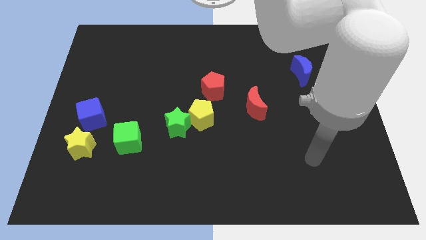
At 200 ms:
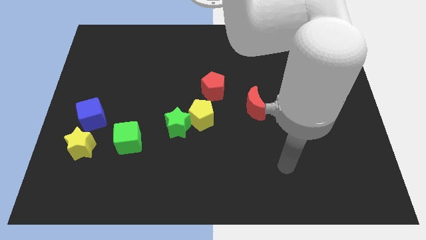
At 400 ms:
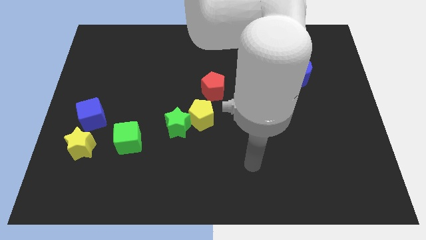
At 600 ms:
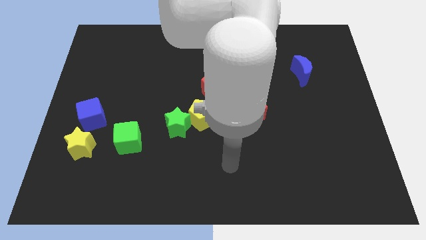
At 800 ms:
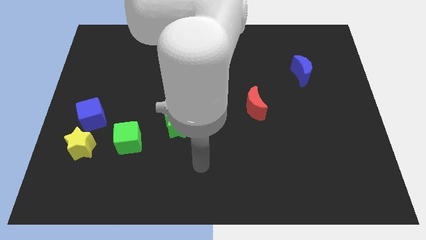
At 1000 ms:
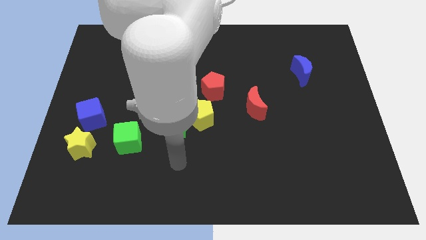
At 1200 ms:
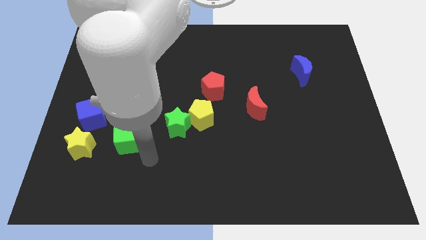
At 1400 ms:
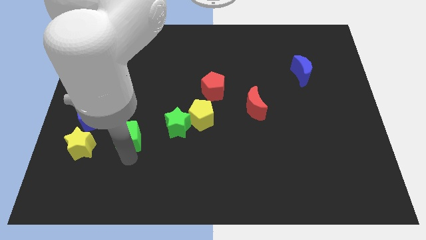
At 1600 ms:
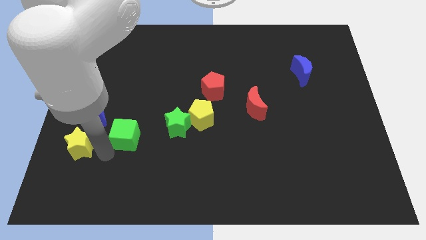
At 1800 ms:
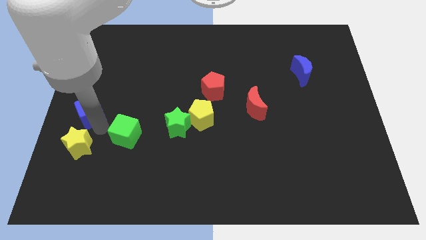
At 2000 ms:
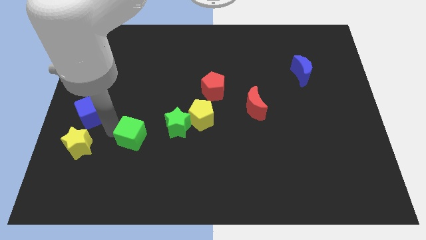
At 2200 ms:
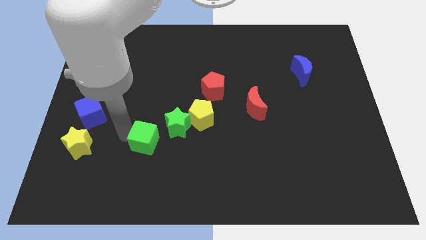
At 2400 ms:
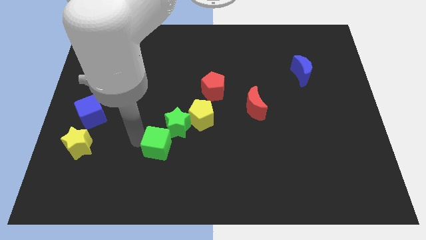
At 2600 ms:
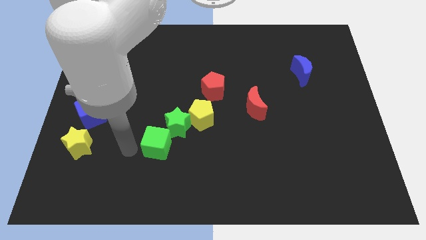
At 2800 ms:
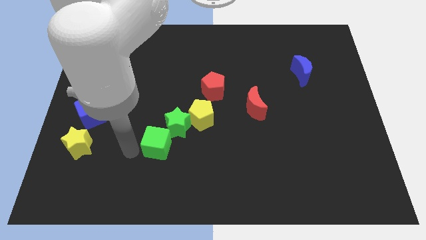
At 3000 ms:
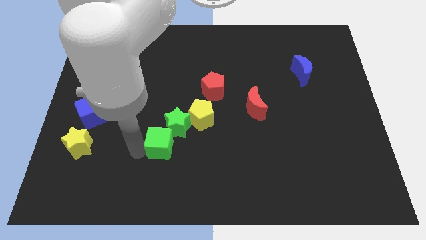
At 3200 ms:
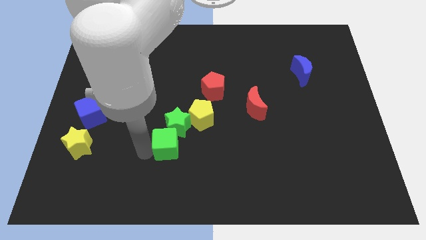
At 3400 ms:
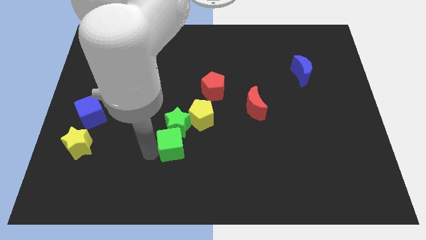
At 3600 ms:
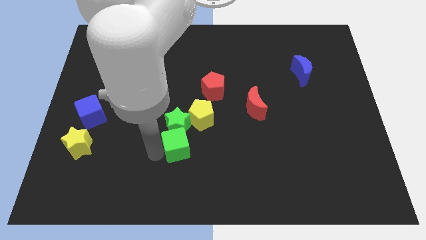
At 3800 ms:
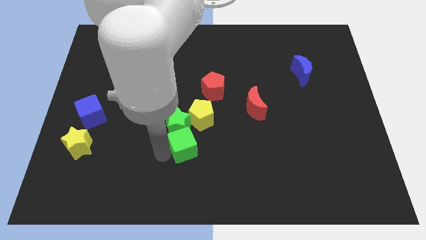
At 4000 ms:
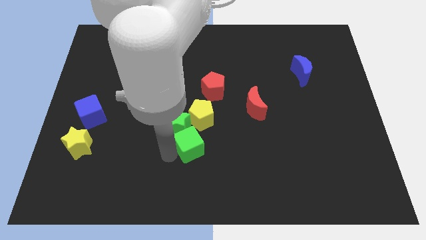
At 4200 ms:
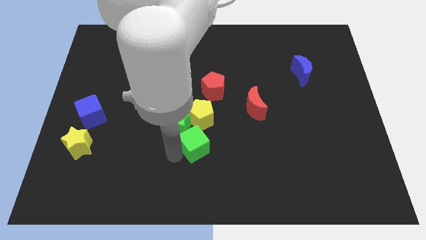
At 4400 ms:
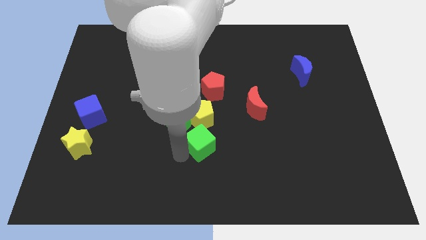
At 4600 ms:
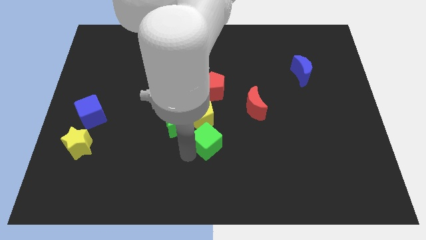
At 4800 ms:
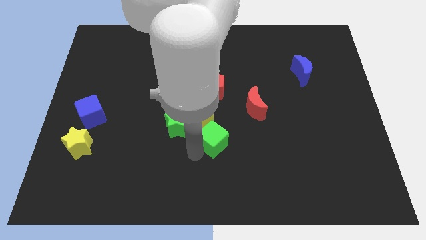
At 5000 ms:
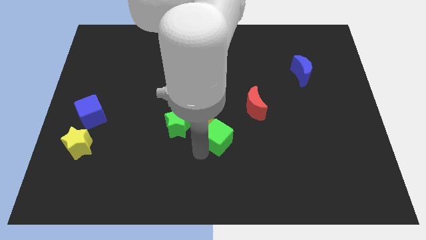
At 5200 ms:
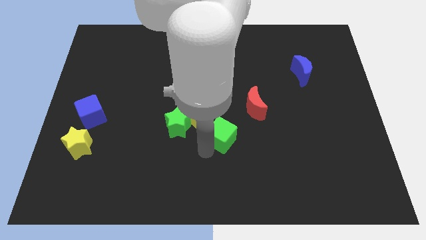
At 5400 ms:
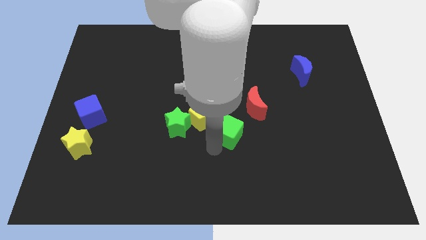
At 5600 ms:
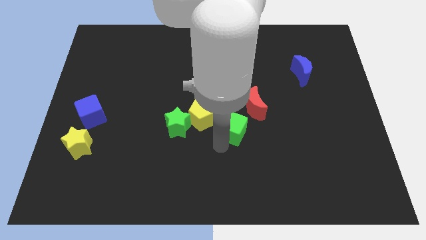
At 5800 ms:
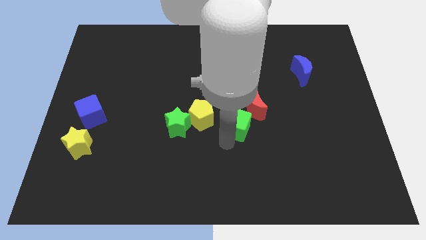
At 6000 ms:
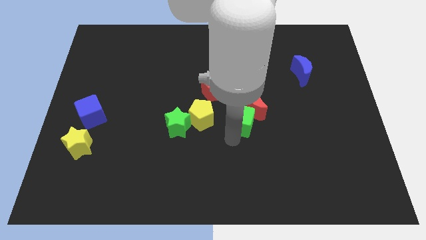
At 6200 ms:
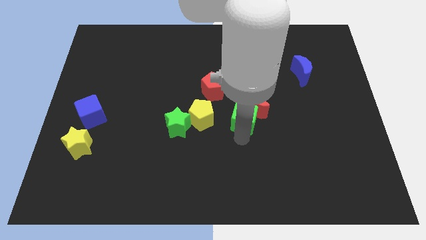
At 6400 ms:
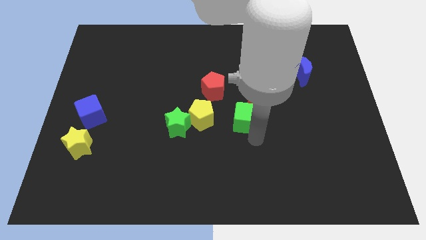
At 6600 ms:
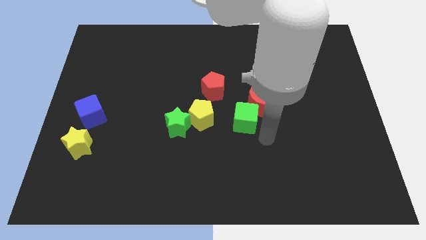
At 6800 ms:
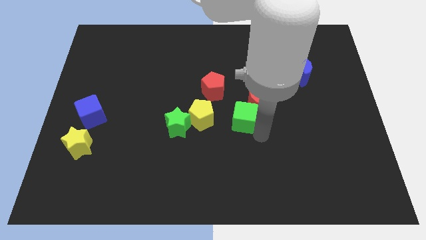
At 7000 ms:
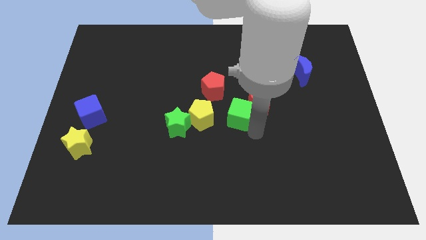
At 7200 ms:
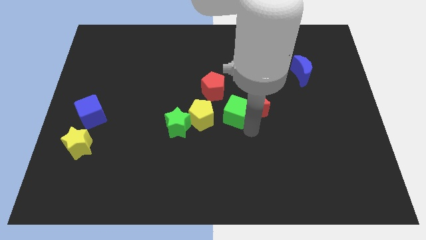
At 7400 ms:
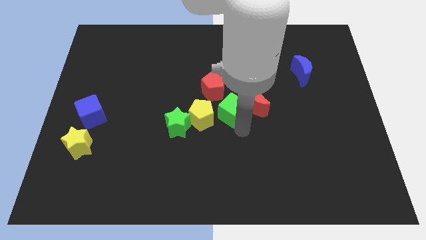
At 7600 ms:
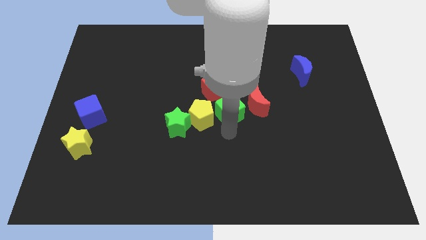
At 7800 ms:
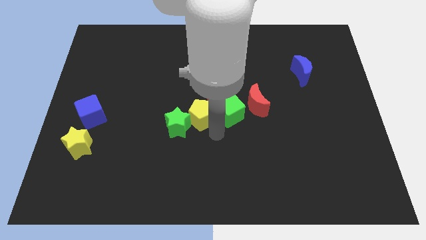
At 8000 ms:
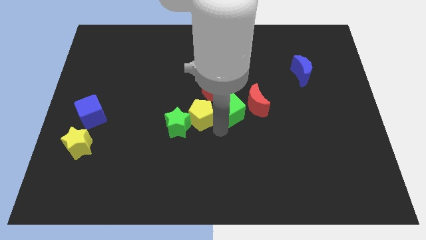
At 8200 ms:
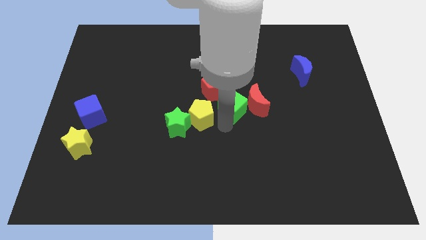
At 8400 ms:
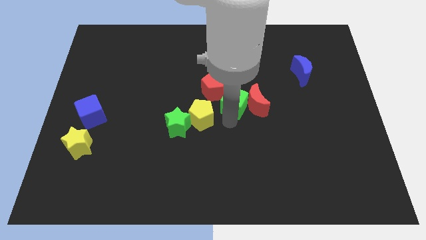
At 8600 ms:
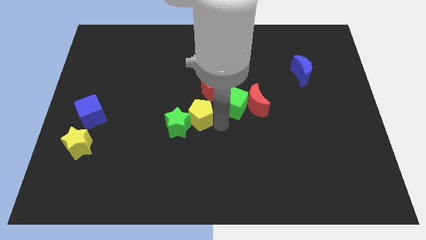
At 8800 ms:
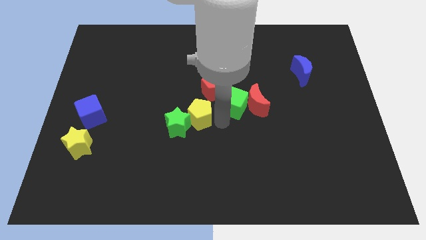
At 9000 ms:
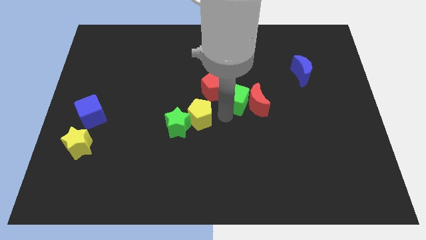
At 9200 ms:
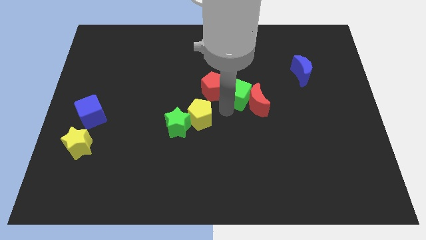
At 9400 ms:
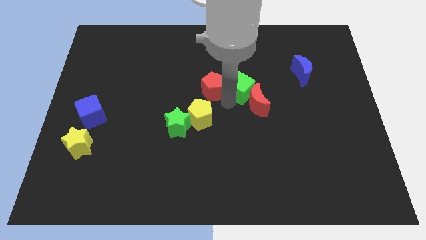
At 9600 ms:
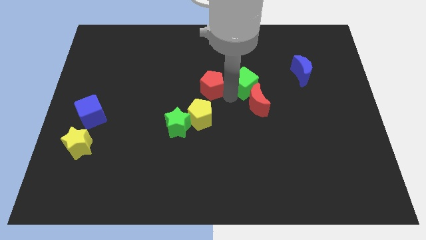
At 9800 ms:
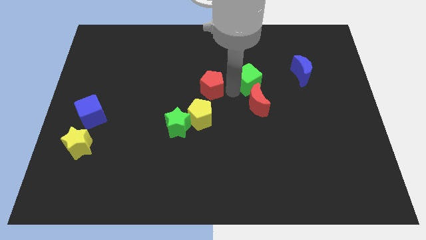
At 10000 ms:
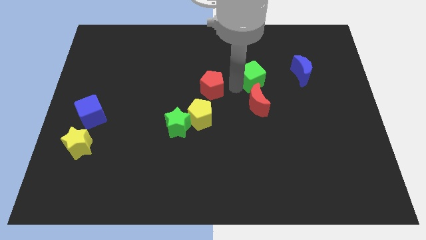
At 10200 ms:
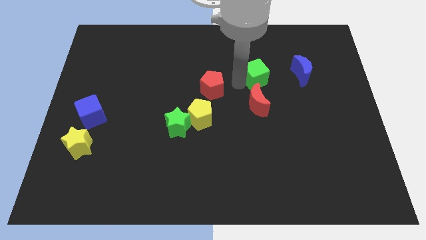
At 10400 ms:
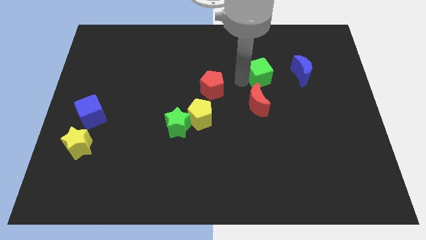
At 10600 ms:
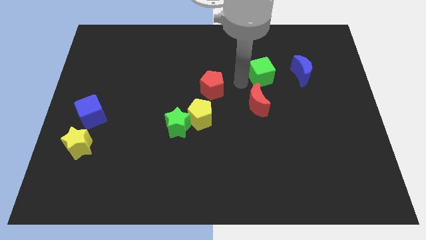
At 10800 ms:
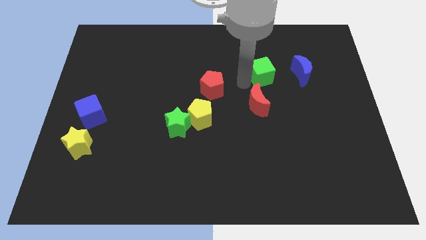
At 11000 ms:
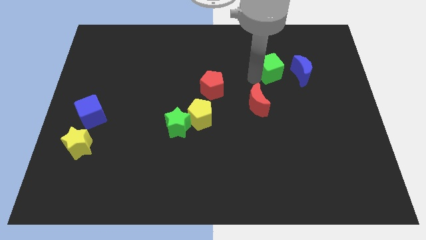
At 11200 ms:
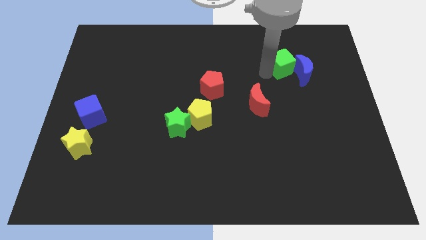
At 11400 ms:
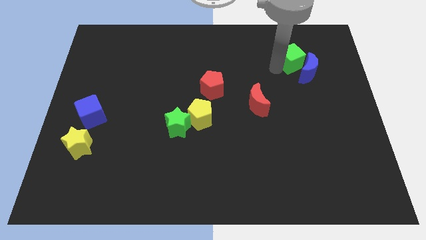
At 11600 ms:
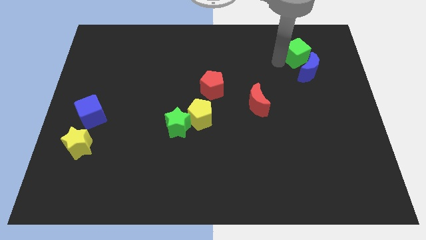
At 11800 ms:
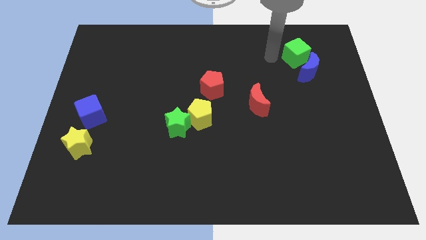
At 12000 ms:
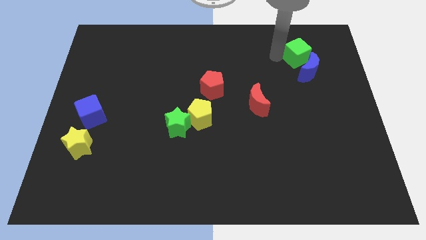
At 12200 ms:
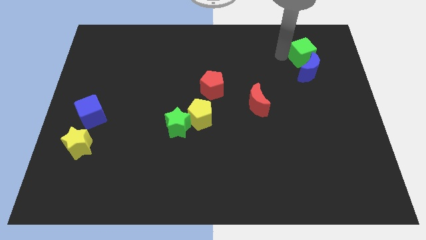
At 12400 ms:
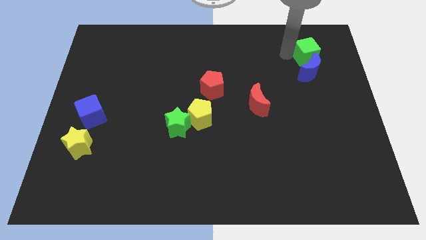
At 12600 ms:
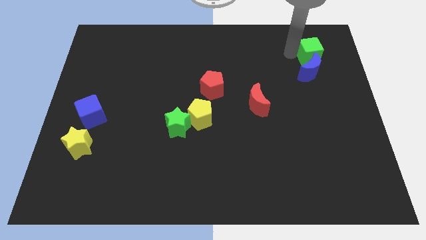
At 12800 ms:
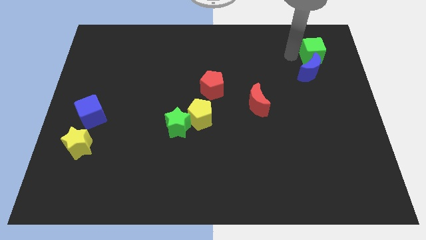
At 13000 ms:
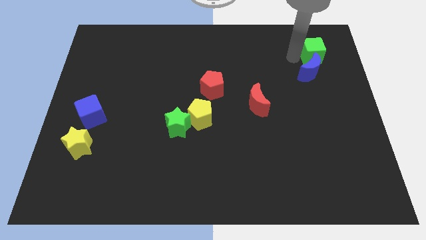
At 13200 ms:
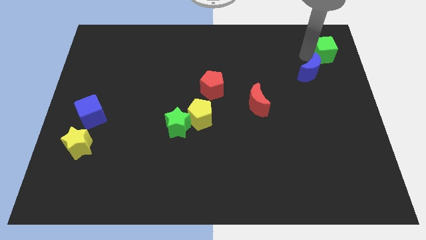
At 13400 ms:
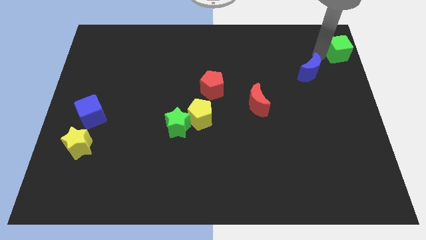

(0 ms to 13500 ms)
move the green cube to the upper right corner

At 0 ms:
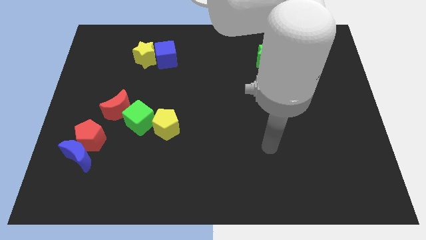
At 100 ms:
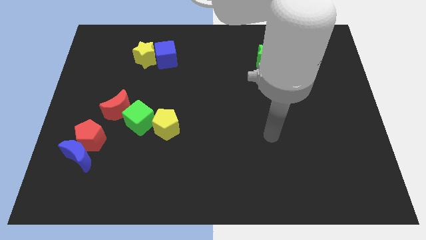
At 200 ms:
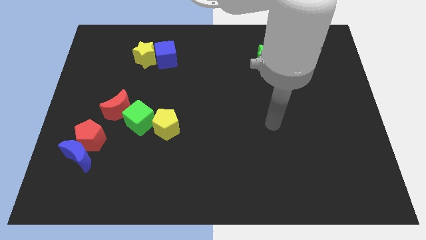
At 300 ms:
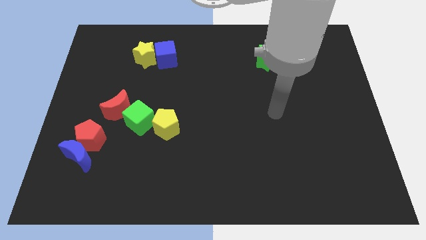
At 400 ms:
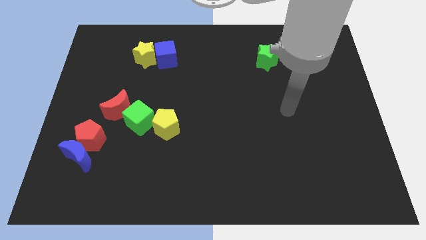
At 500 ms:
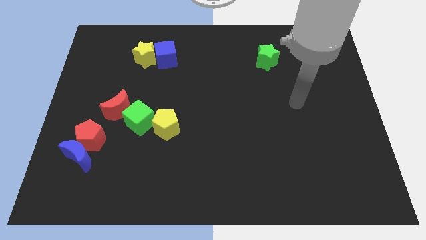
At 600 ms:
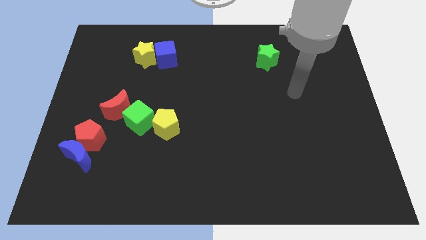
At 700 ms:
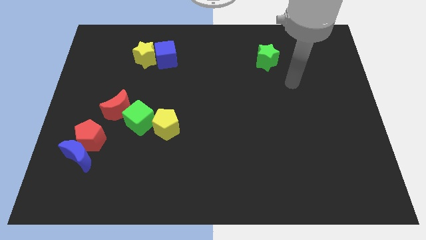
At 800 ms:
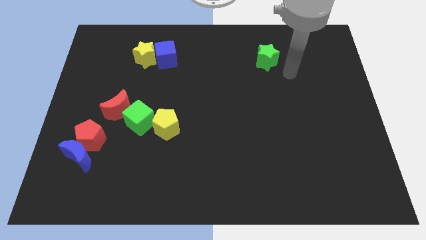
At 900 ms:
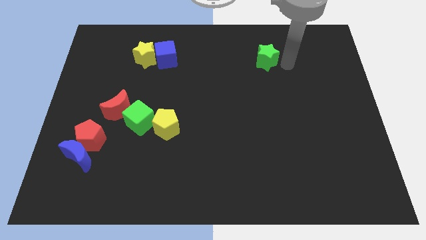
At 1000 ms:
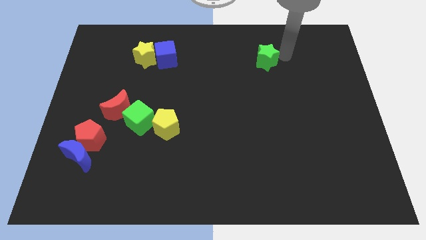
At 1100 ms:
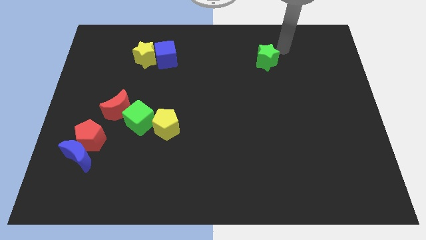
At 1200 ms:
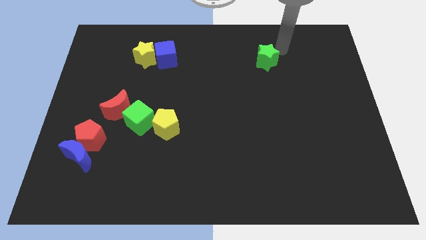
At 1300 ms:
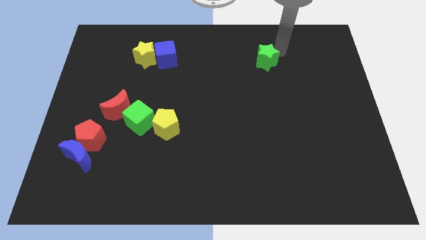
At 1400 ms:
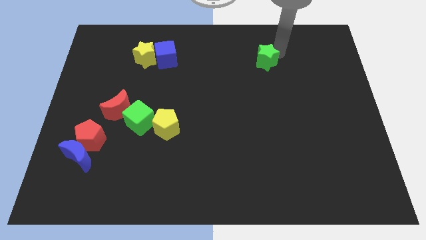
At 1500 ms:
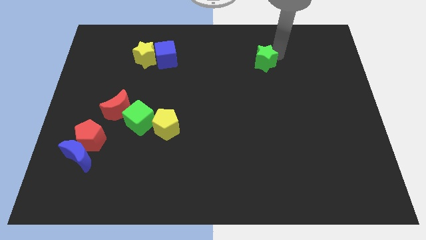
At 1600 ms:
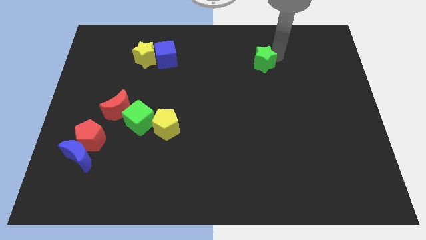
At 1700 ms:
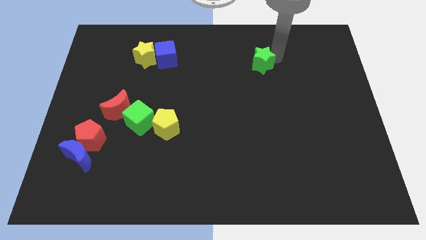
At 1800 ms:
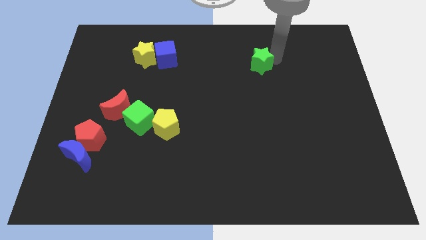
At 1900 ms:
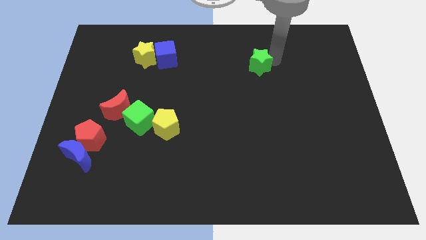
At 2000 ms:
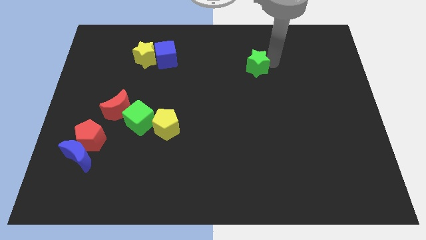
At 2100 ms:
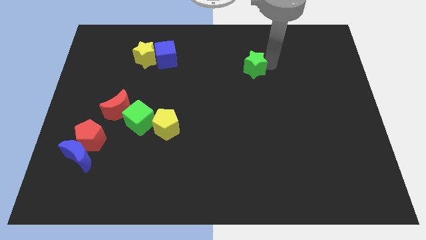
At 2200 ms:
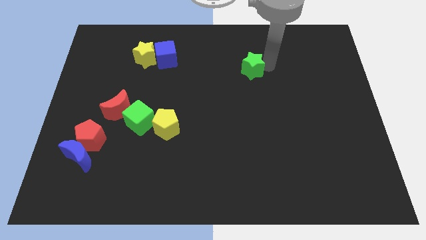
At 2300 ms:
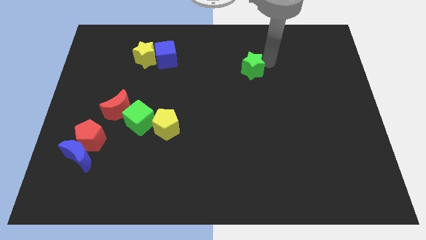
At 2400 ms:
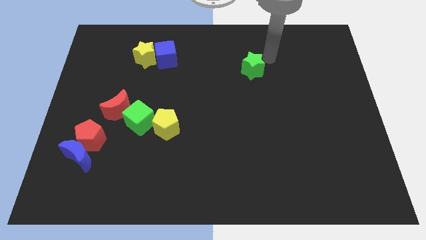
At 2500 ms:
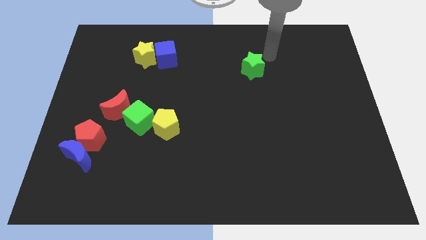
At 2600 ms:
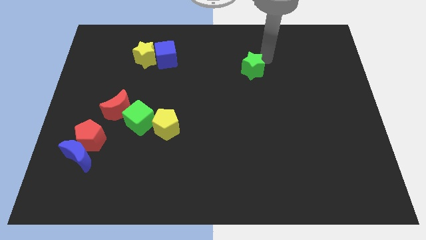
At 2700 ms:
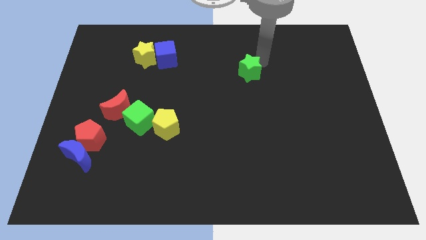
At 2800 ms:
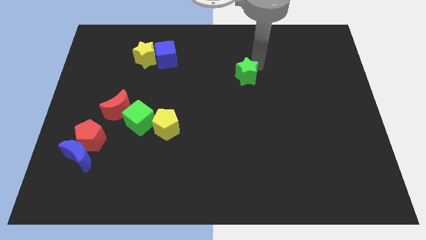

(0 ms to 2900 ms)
push the green star to the center of the board
